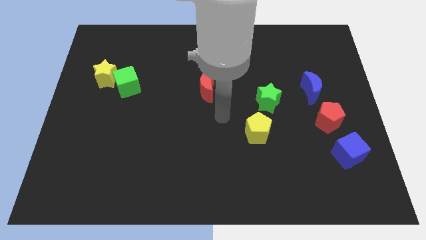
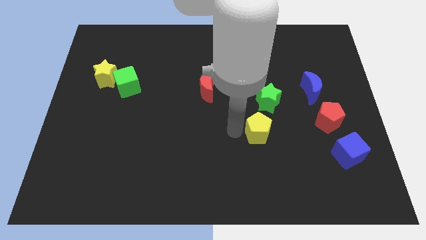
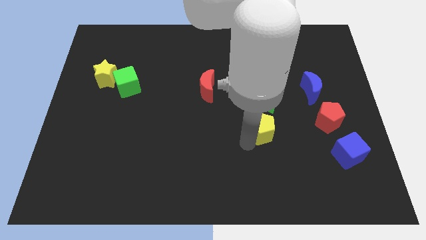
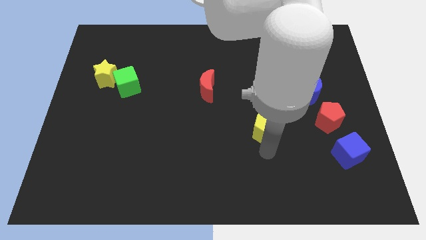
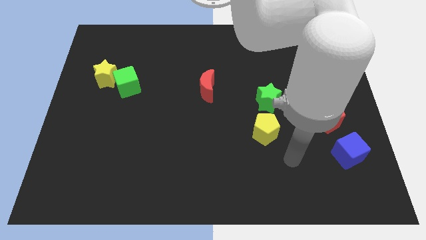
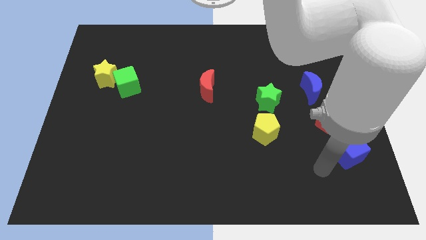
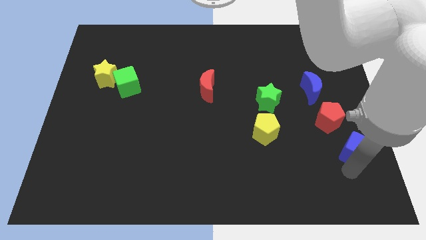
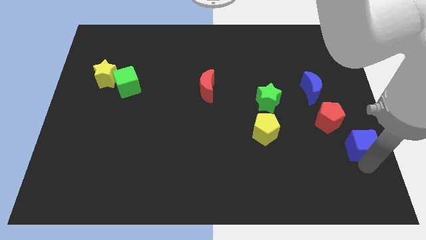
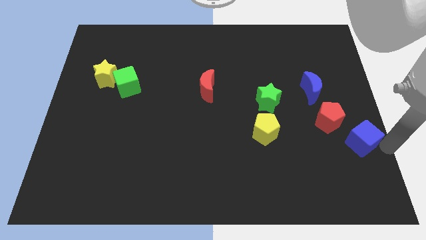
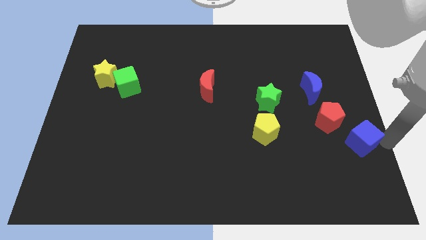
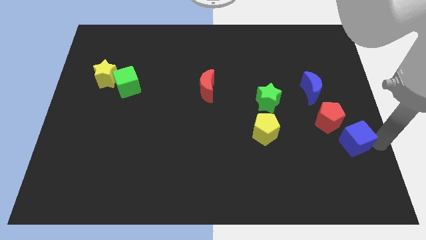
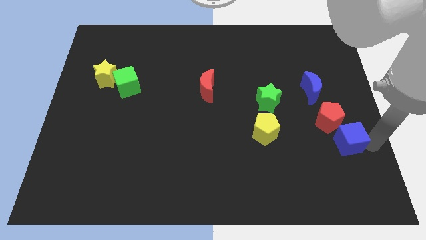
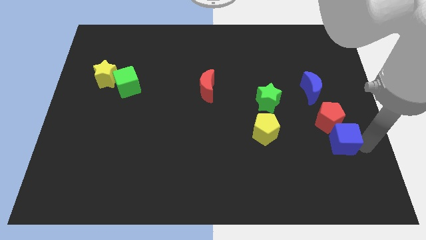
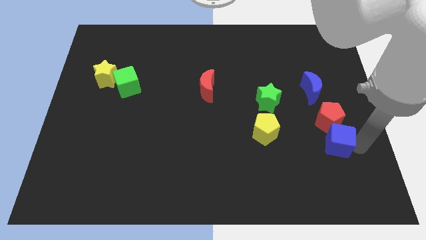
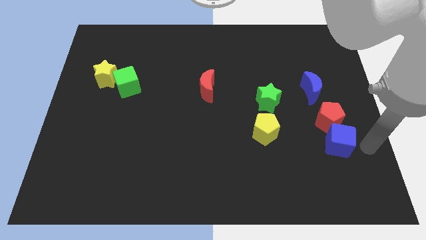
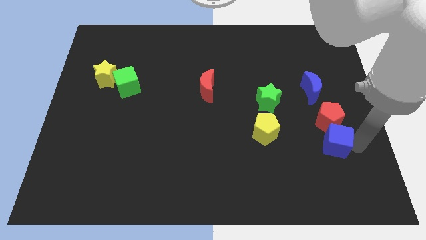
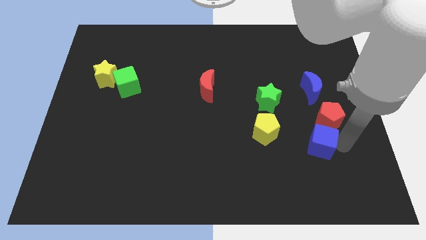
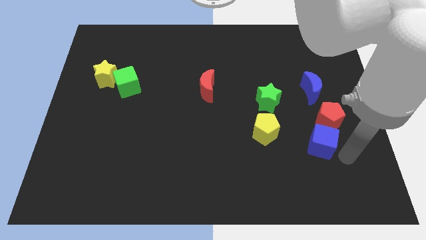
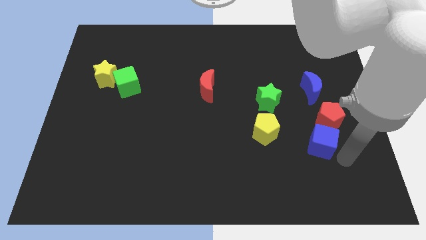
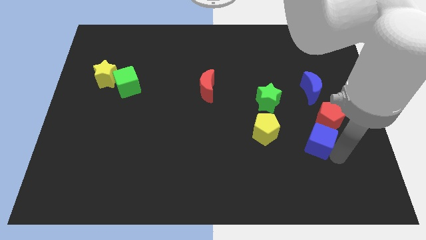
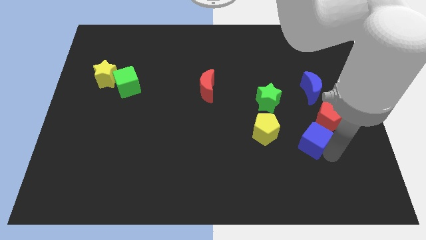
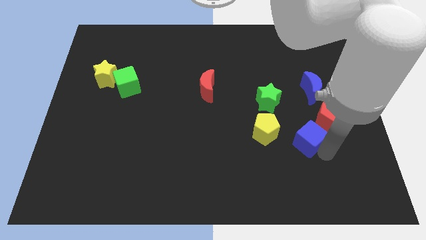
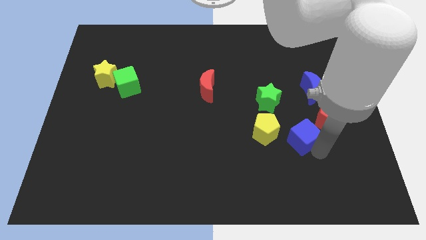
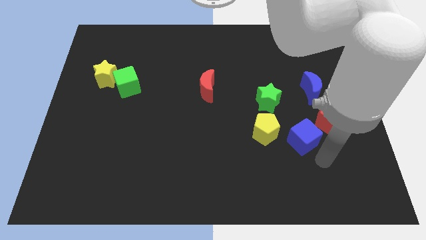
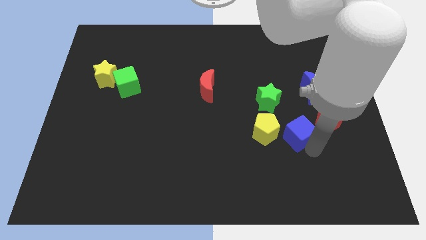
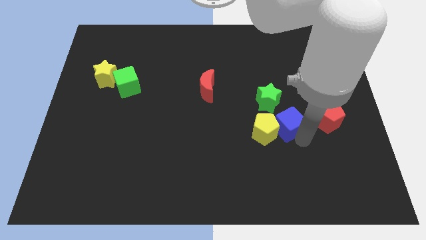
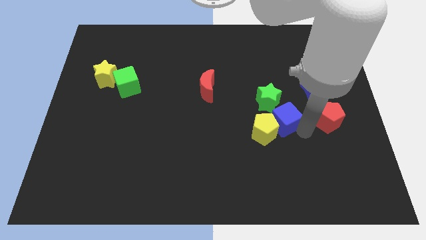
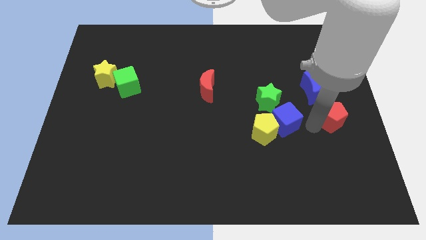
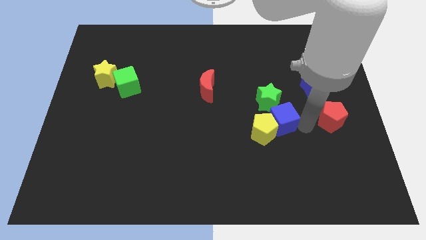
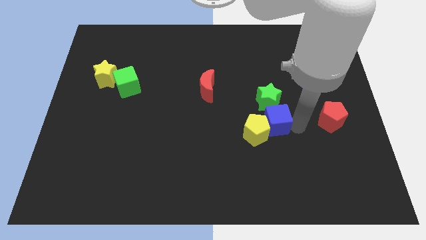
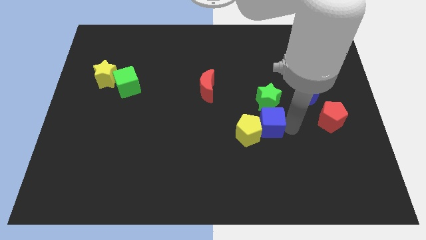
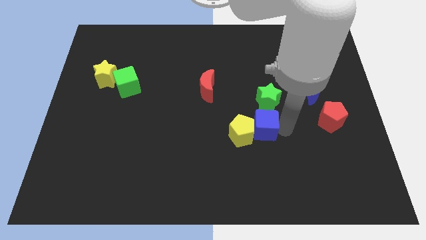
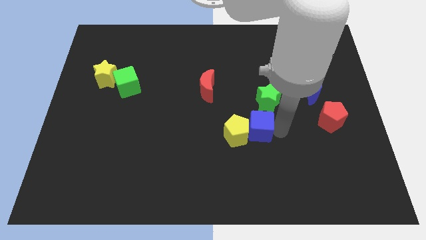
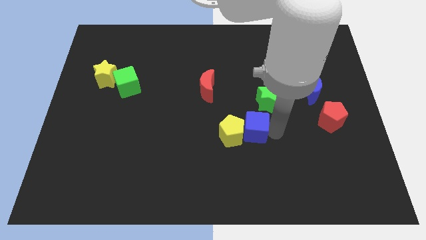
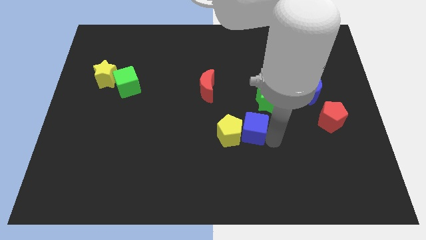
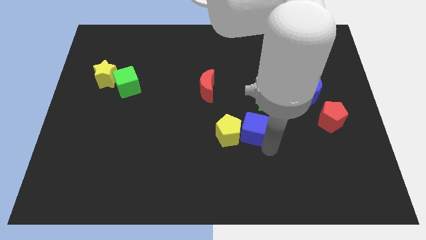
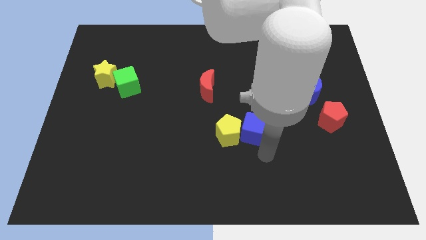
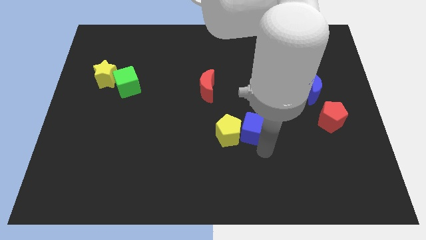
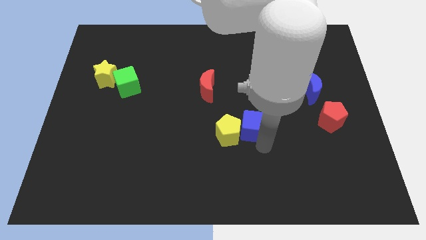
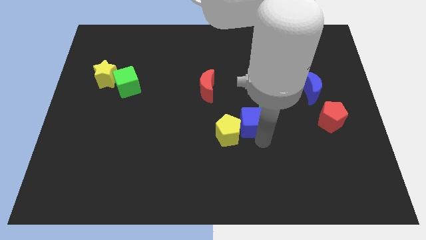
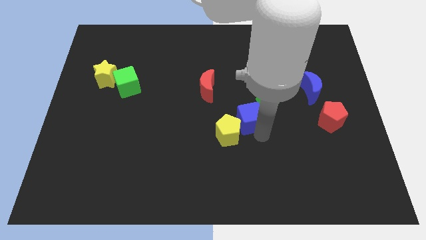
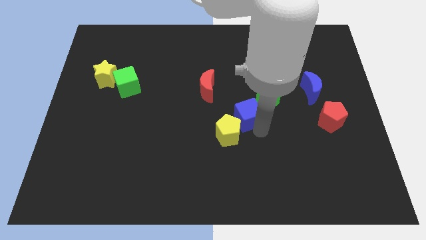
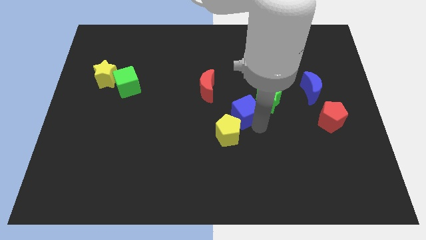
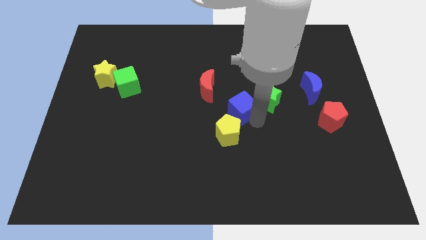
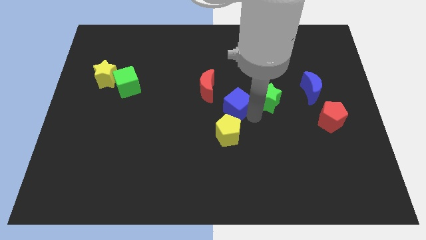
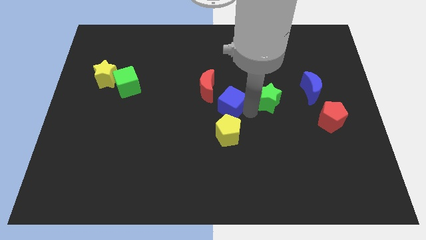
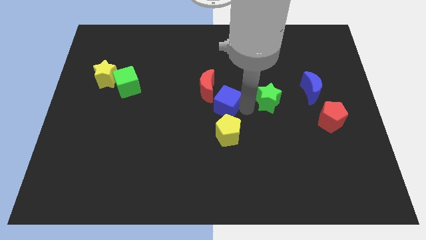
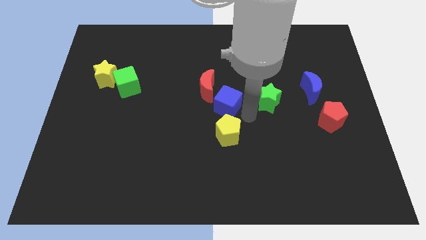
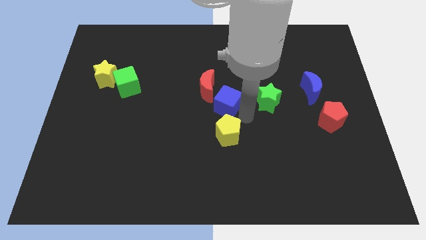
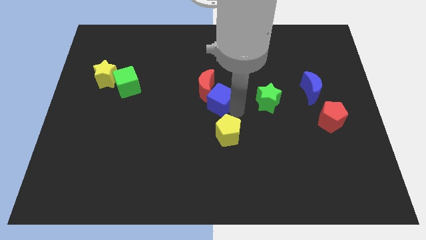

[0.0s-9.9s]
slide the blue cube to the red moon

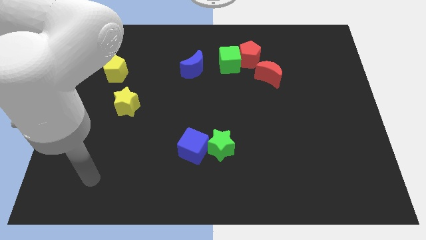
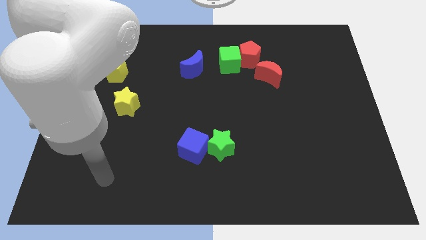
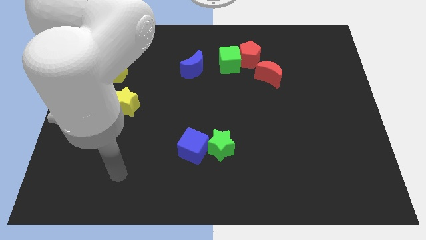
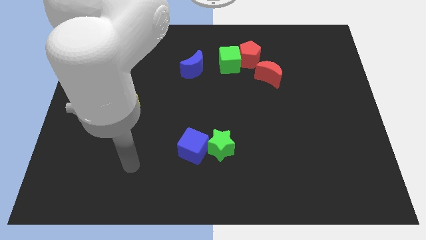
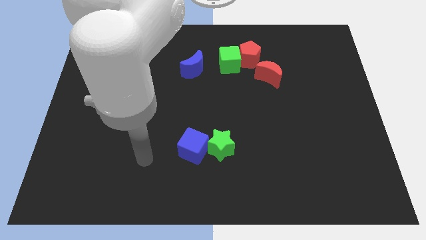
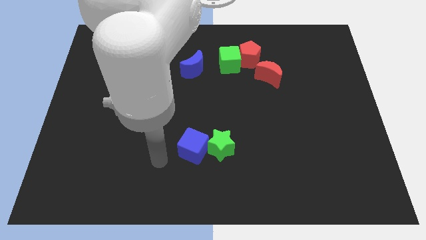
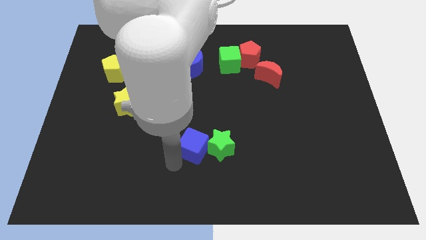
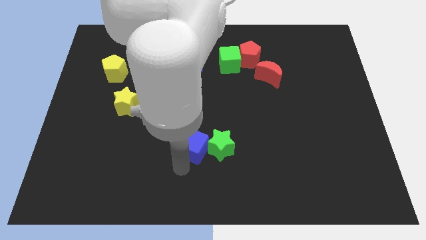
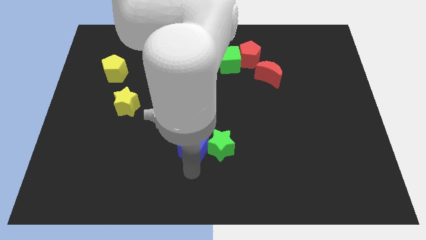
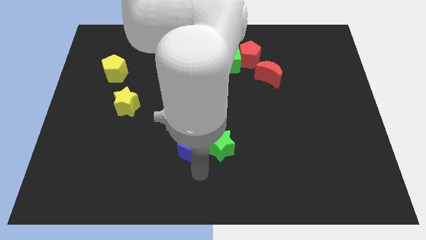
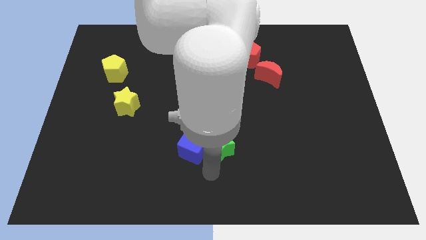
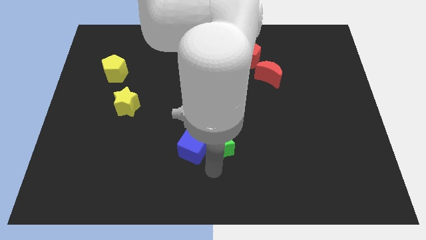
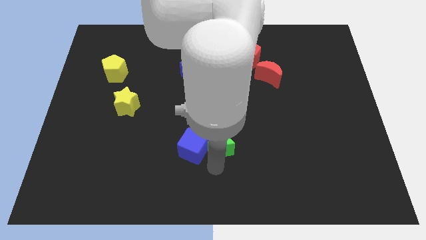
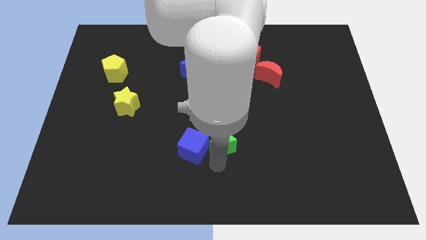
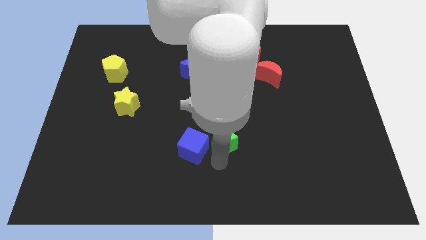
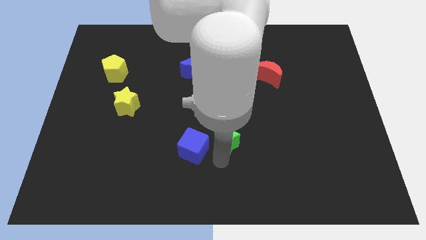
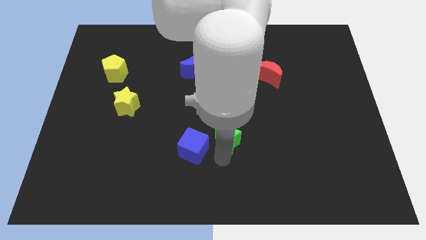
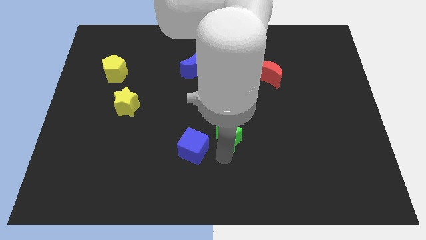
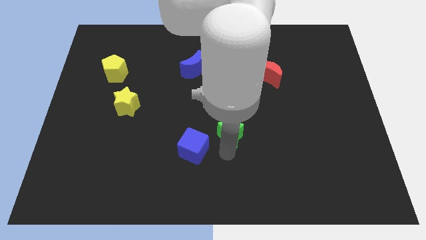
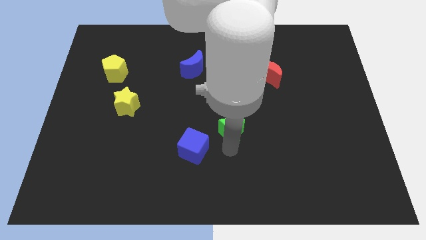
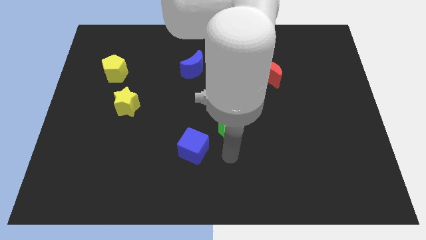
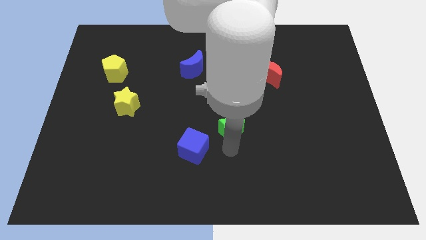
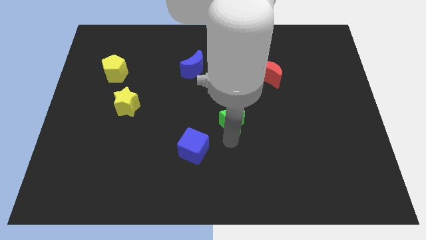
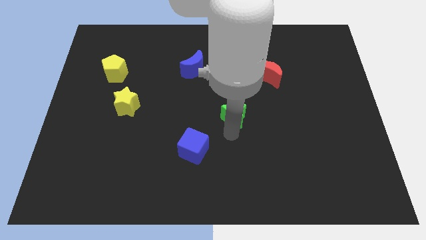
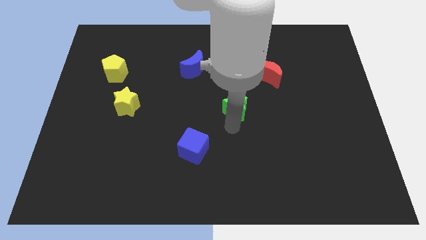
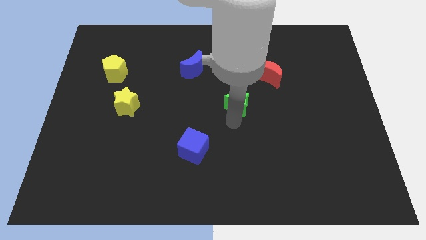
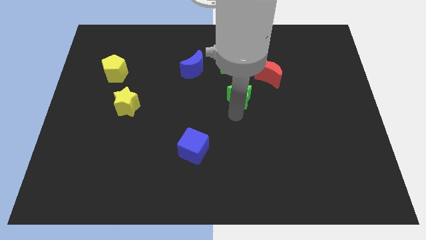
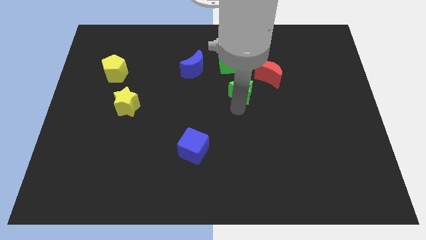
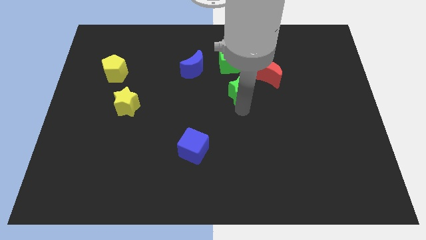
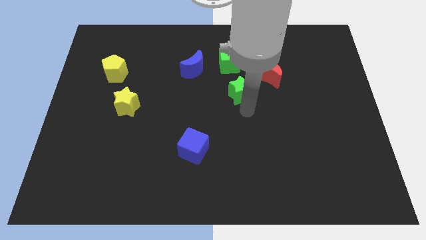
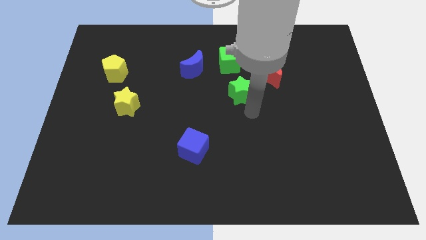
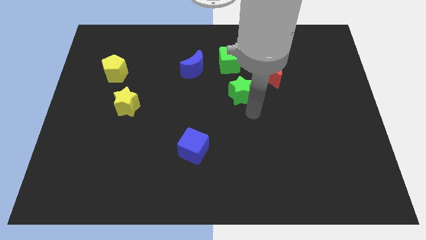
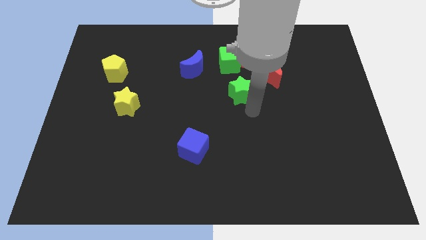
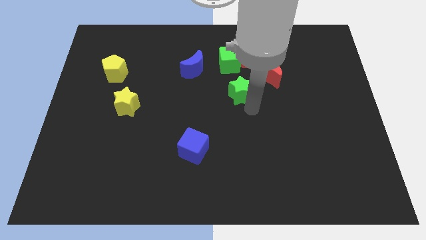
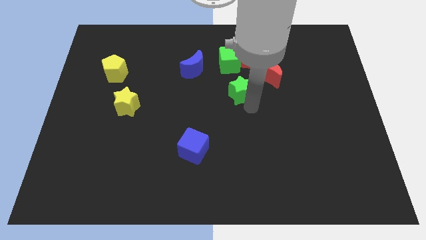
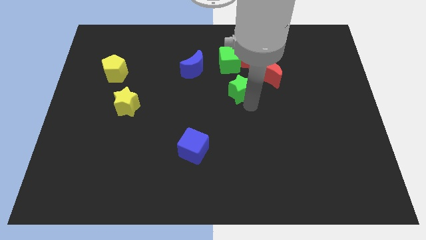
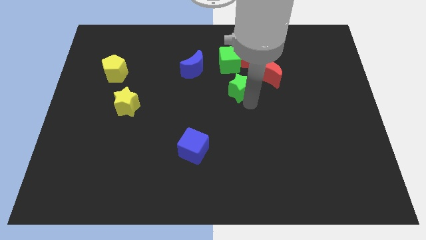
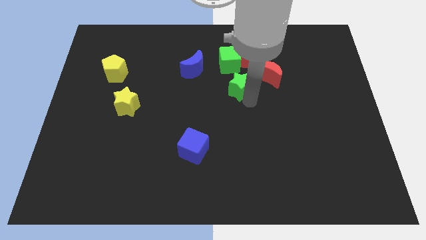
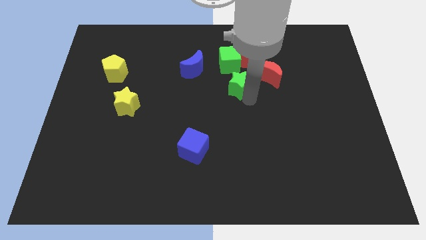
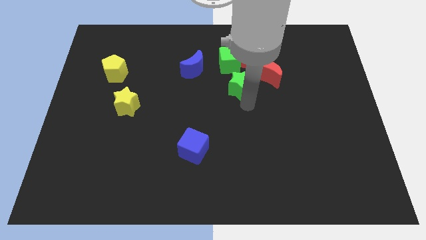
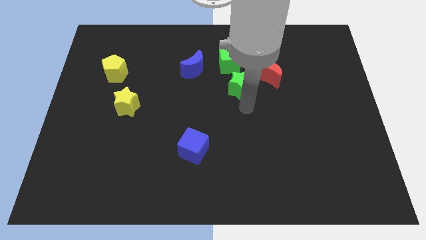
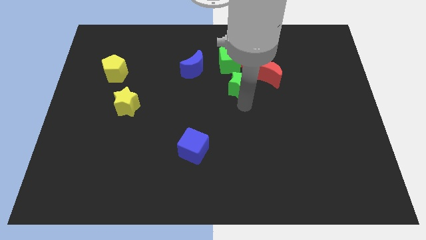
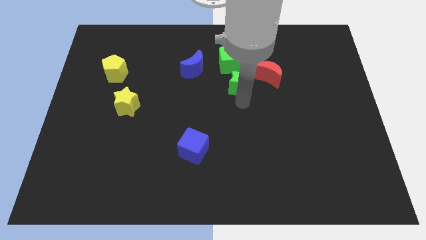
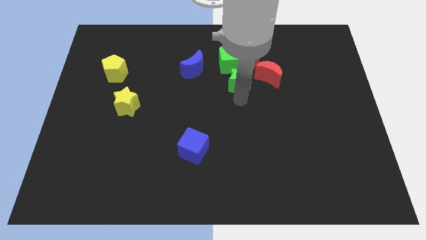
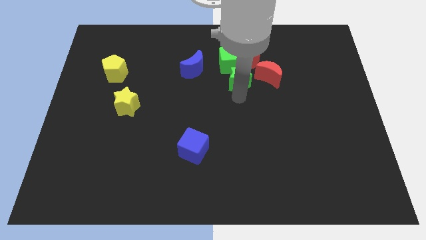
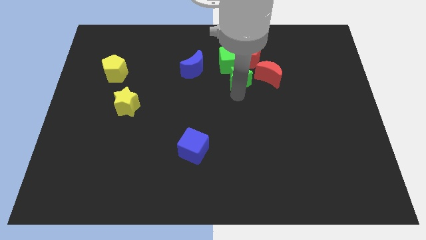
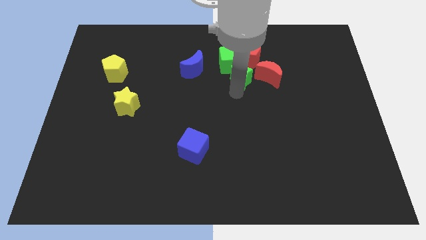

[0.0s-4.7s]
push the green star to the green cube
